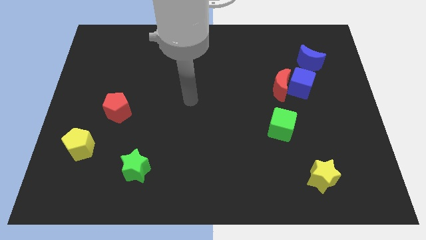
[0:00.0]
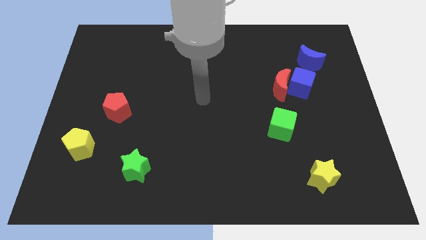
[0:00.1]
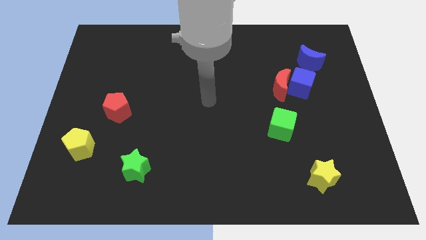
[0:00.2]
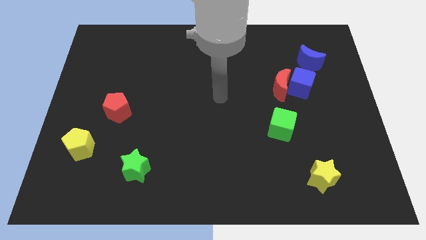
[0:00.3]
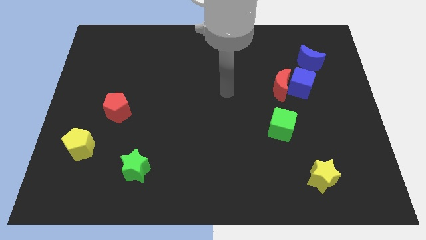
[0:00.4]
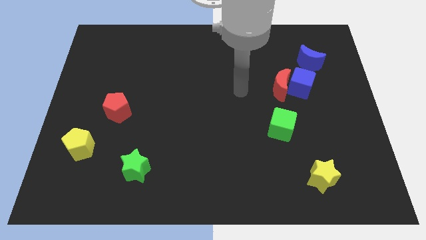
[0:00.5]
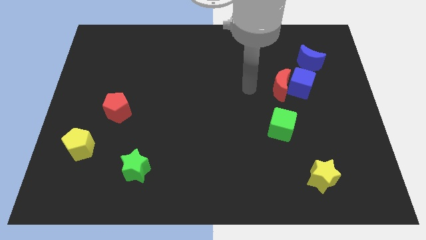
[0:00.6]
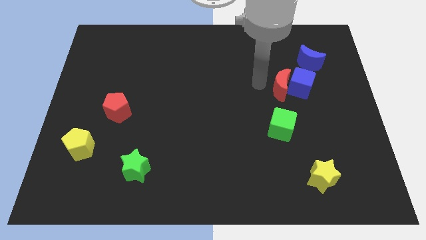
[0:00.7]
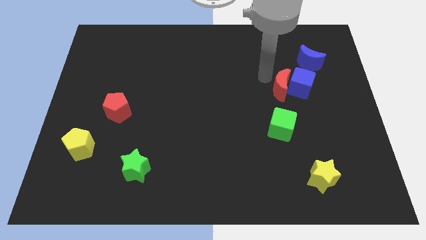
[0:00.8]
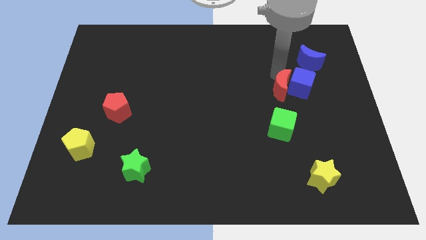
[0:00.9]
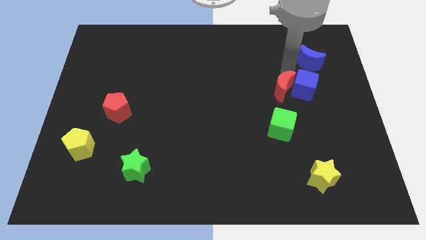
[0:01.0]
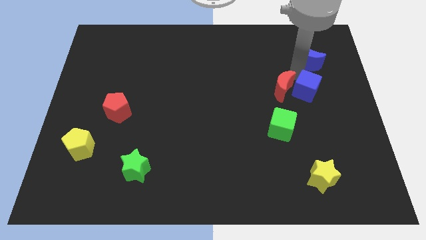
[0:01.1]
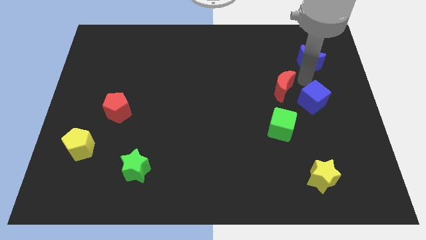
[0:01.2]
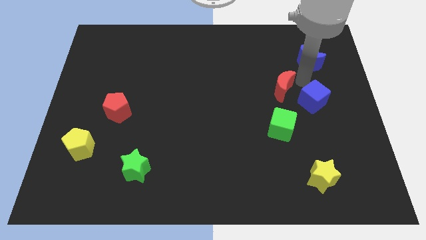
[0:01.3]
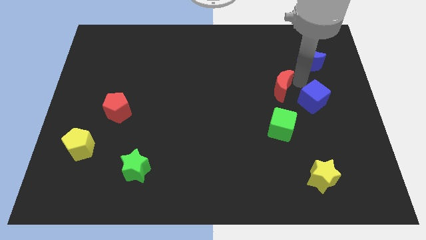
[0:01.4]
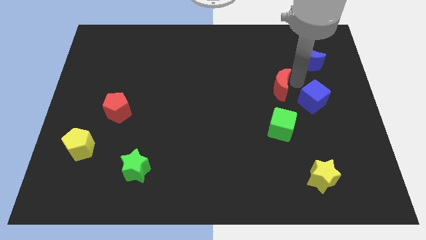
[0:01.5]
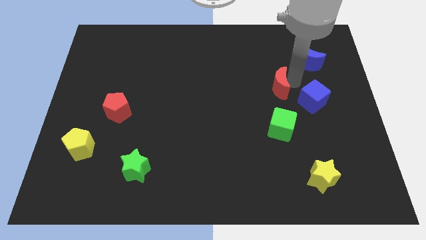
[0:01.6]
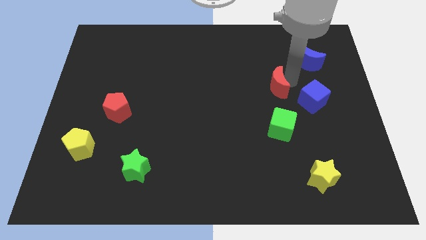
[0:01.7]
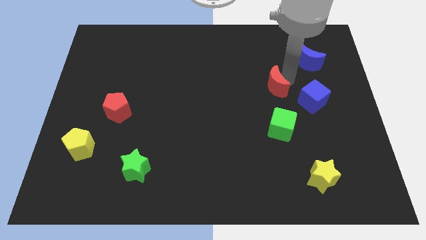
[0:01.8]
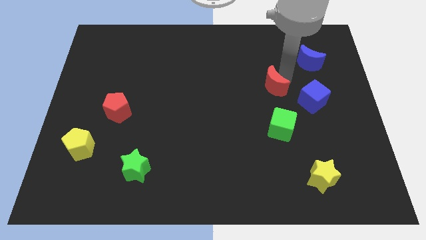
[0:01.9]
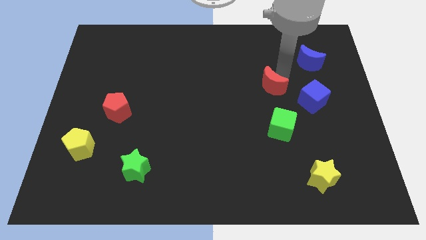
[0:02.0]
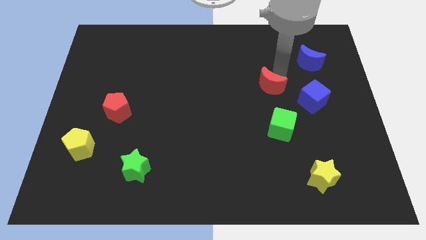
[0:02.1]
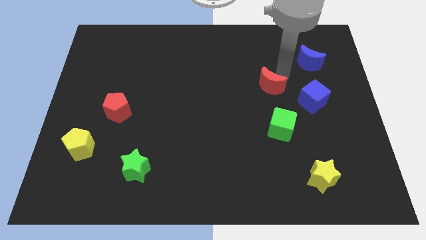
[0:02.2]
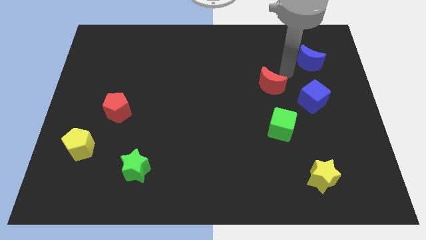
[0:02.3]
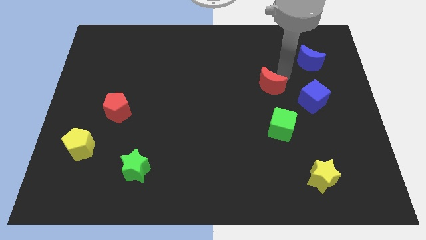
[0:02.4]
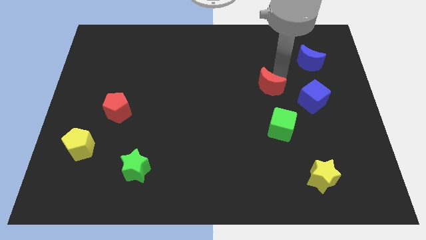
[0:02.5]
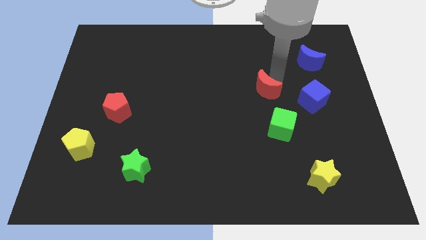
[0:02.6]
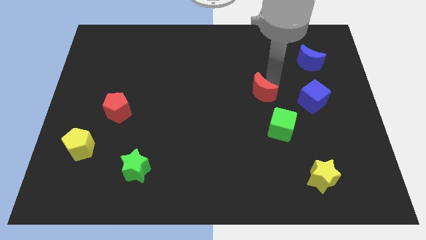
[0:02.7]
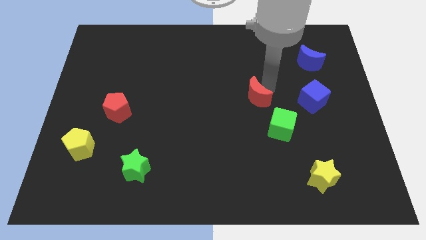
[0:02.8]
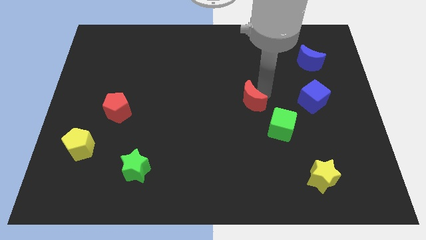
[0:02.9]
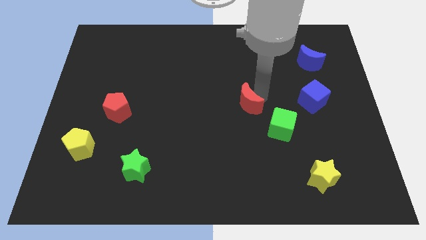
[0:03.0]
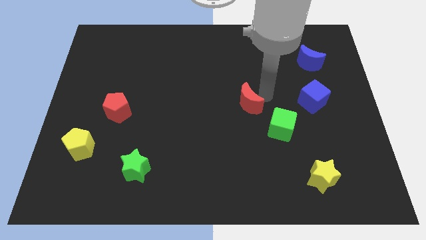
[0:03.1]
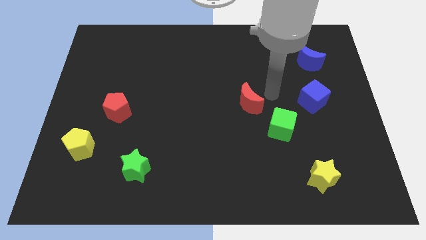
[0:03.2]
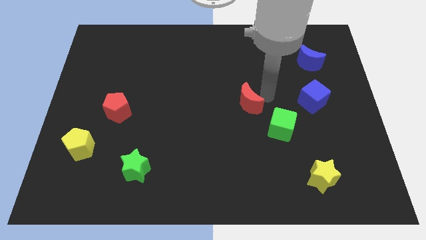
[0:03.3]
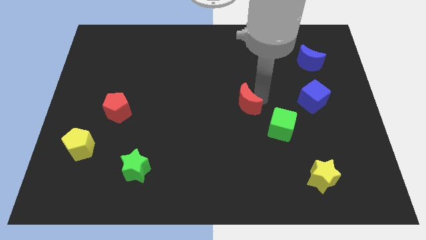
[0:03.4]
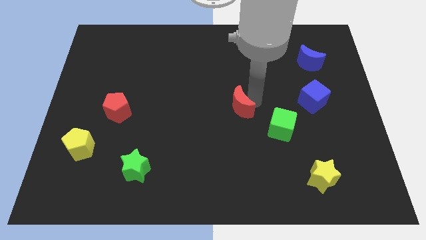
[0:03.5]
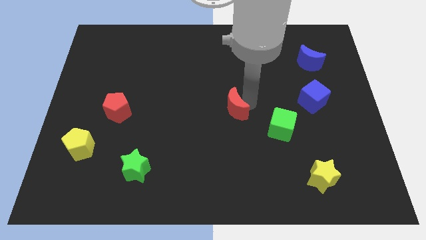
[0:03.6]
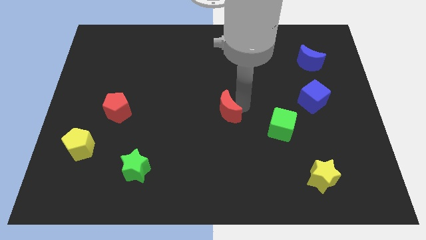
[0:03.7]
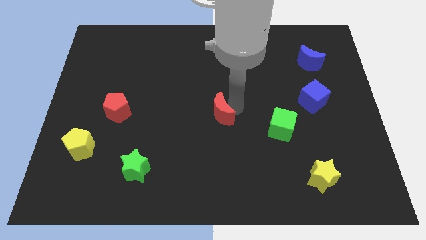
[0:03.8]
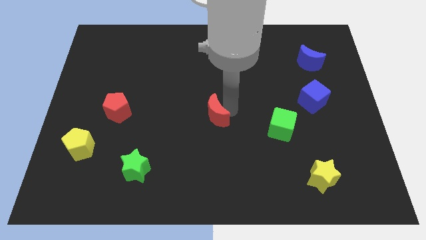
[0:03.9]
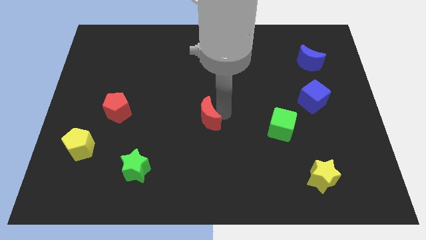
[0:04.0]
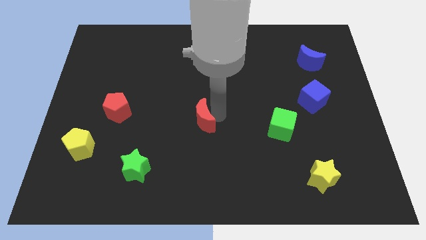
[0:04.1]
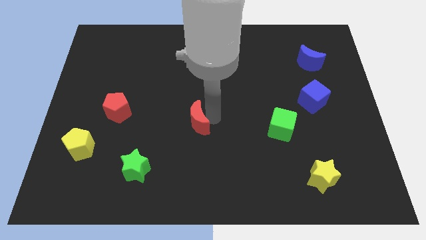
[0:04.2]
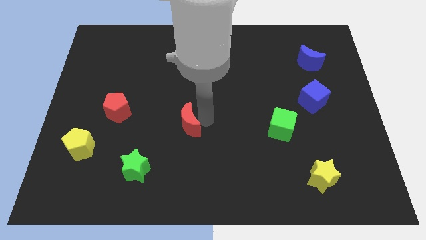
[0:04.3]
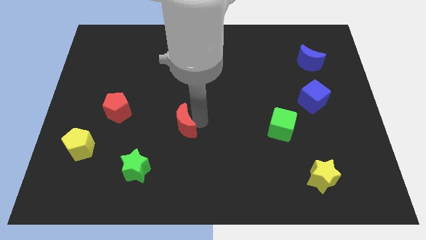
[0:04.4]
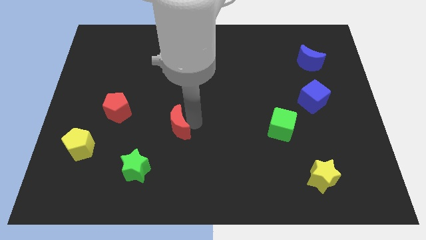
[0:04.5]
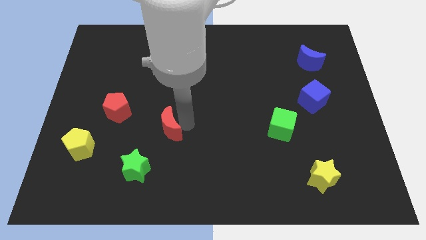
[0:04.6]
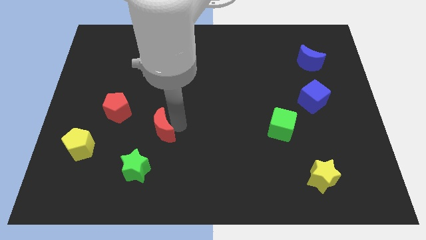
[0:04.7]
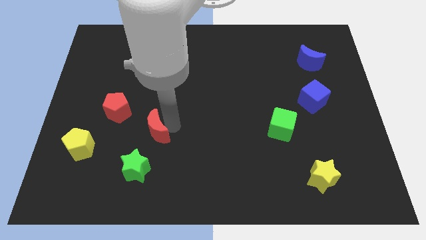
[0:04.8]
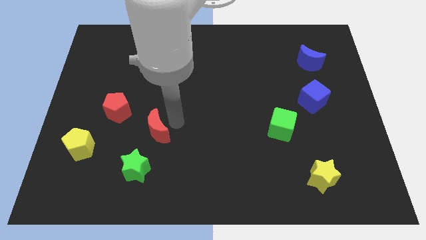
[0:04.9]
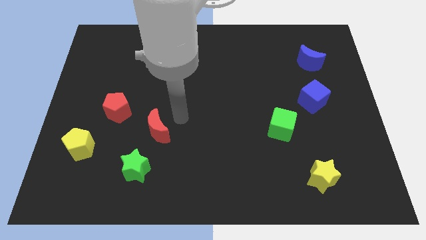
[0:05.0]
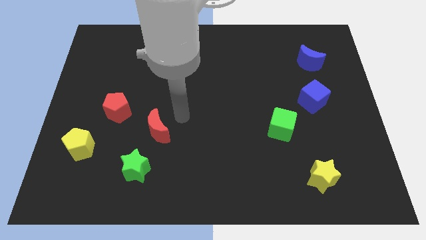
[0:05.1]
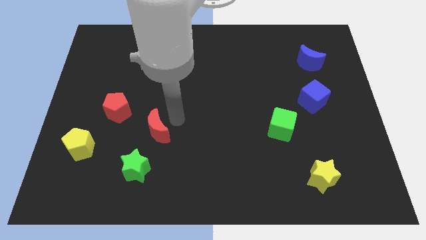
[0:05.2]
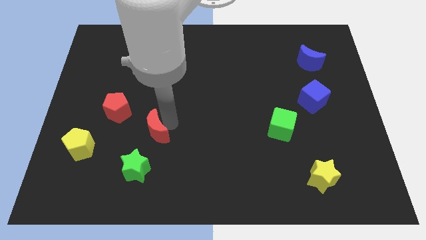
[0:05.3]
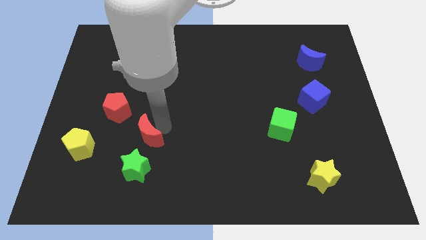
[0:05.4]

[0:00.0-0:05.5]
move the red moon just right of the yellow pentagon

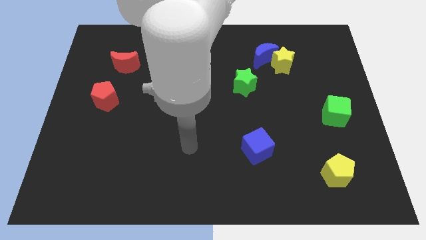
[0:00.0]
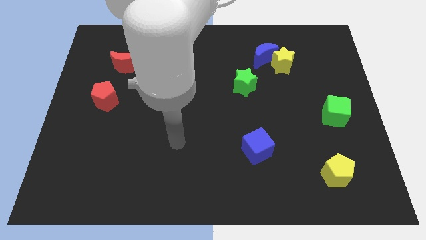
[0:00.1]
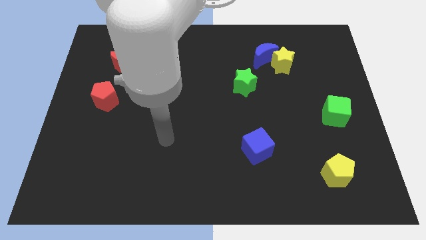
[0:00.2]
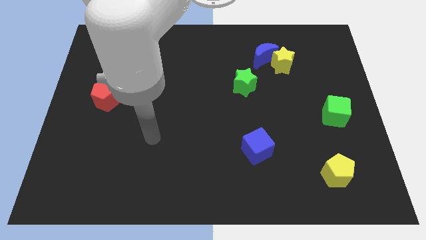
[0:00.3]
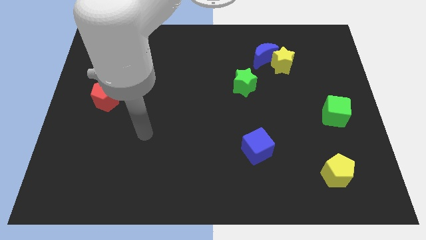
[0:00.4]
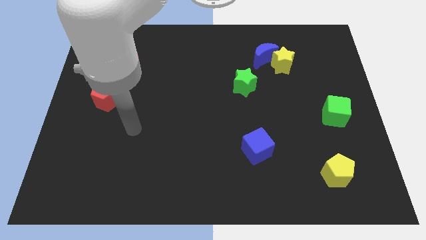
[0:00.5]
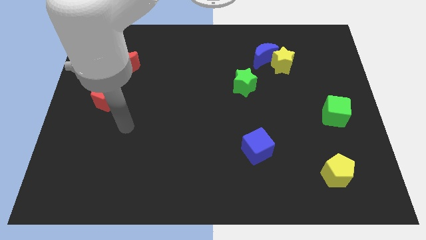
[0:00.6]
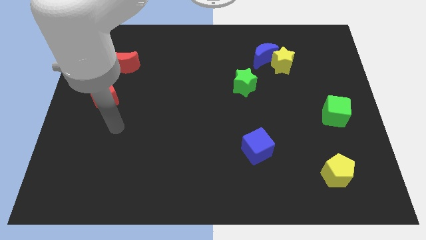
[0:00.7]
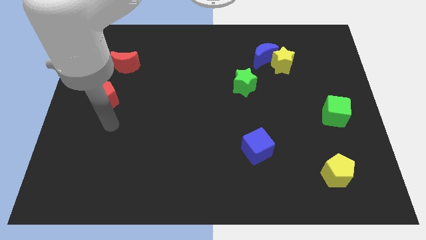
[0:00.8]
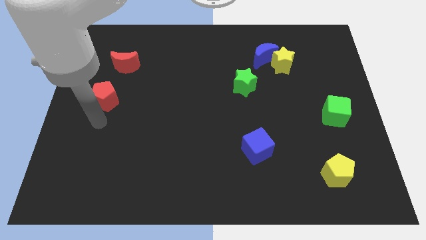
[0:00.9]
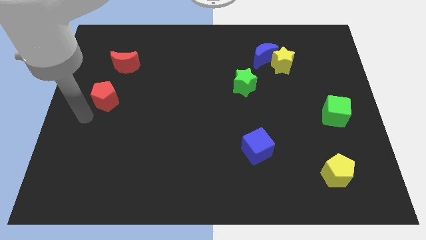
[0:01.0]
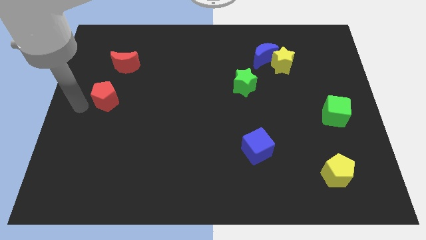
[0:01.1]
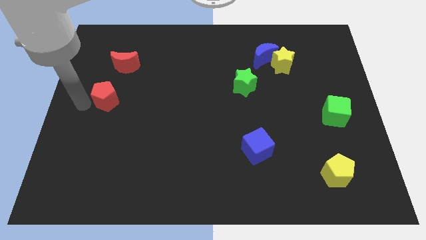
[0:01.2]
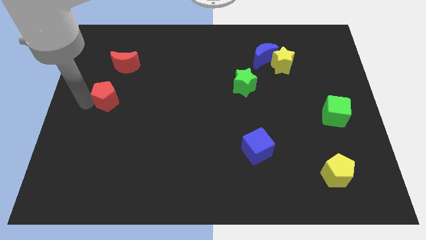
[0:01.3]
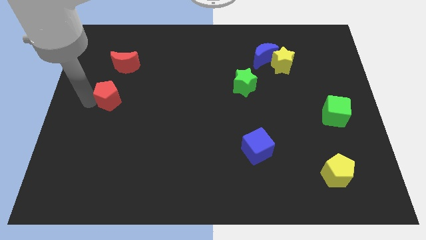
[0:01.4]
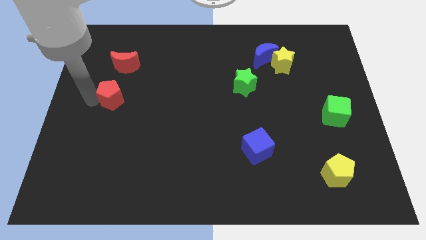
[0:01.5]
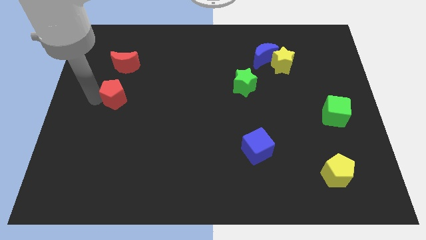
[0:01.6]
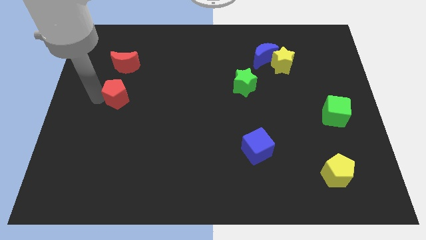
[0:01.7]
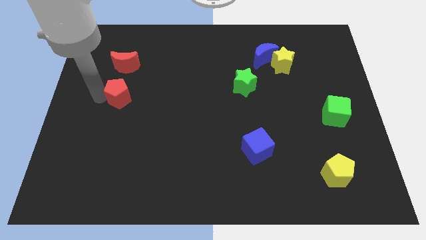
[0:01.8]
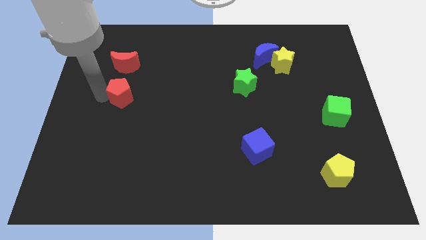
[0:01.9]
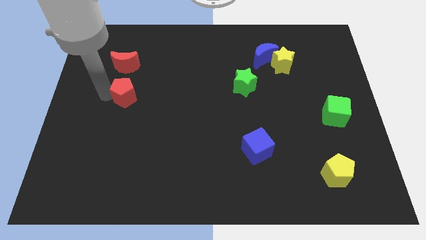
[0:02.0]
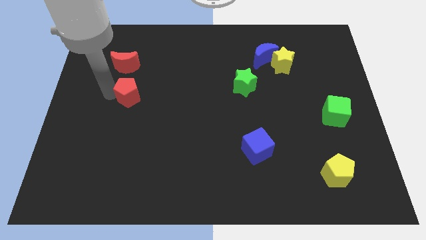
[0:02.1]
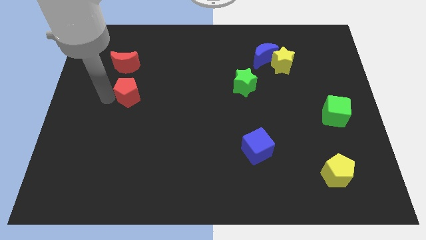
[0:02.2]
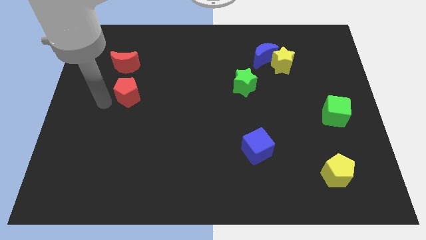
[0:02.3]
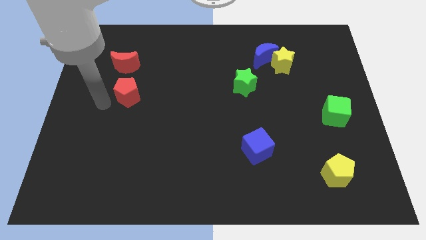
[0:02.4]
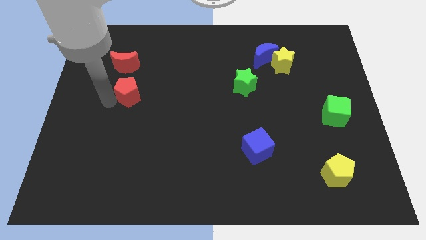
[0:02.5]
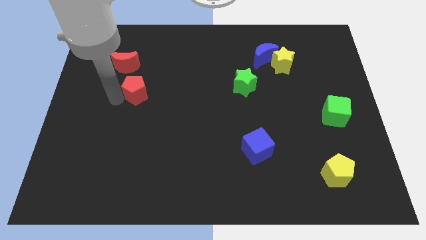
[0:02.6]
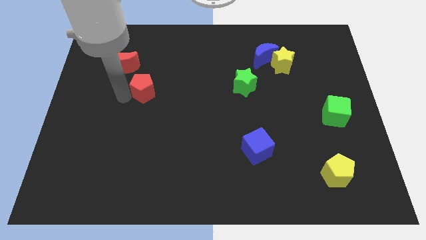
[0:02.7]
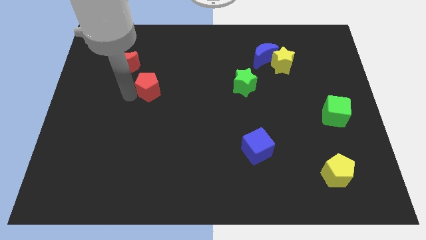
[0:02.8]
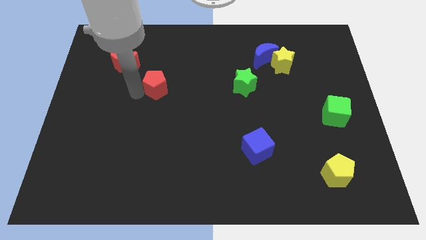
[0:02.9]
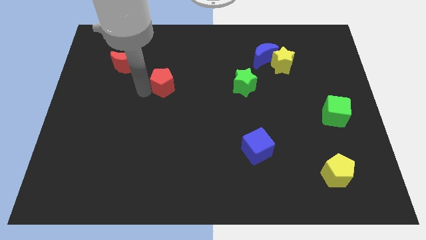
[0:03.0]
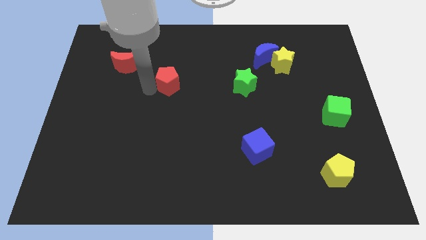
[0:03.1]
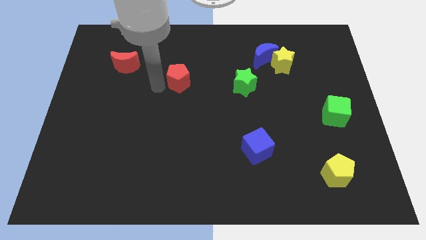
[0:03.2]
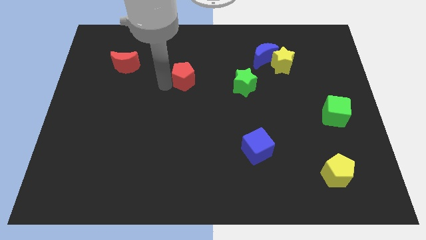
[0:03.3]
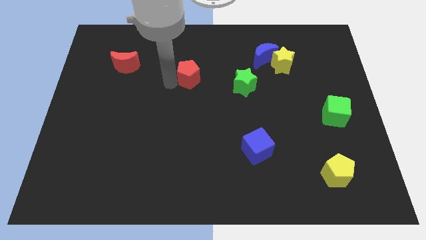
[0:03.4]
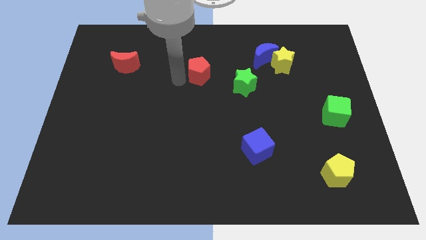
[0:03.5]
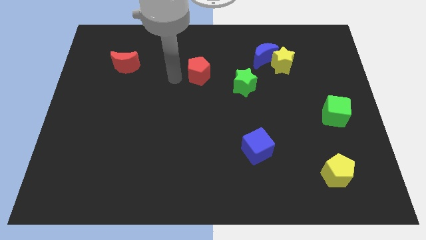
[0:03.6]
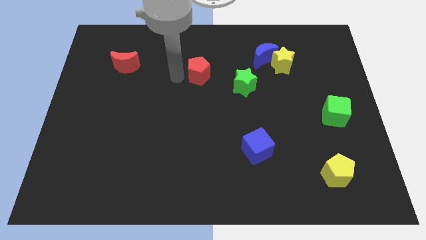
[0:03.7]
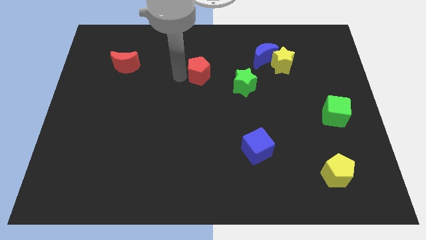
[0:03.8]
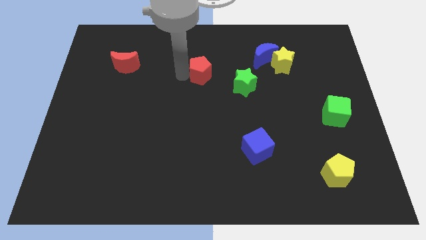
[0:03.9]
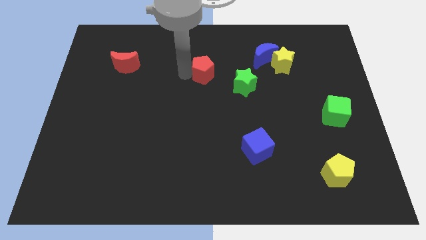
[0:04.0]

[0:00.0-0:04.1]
slide the red pentagon to the top left side of the green star
